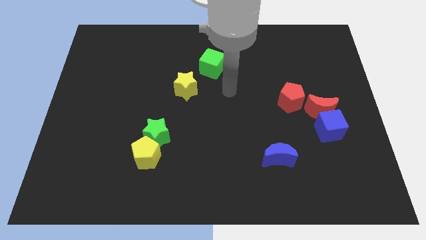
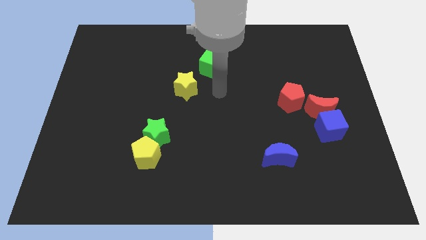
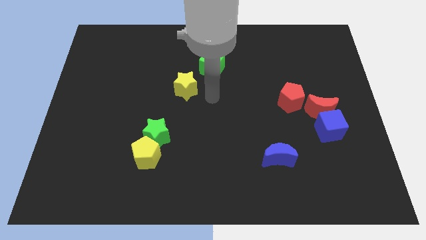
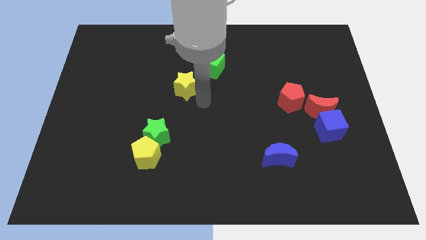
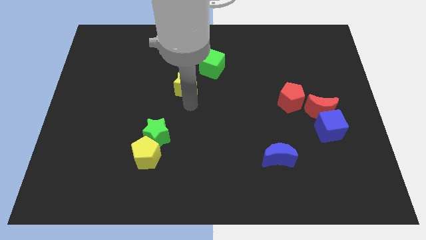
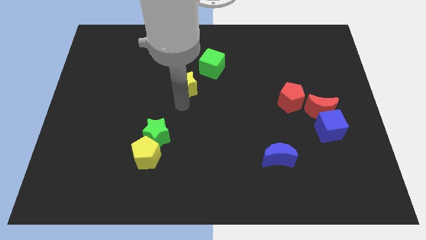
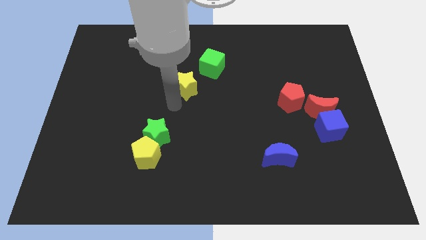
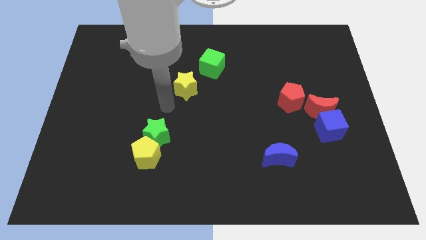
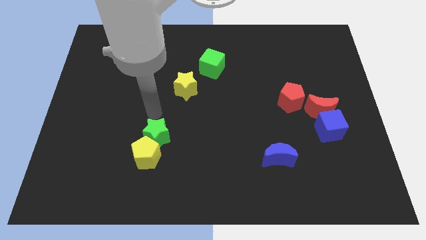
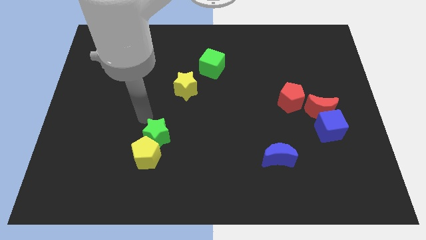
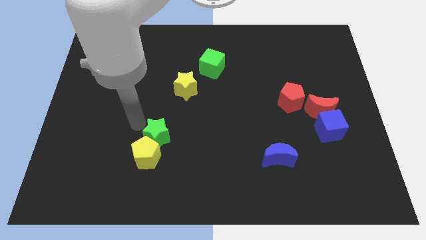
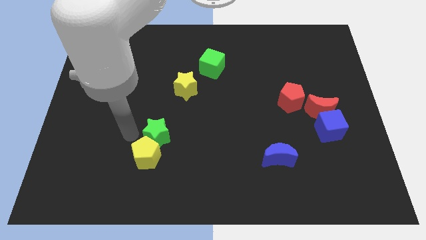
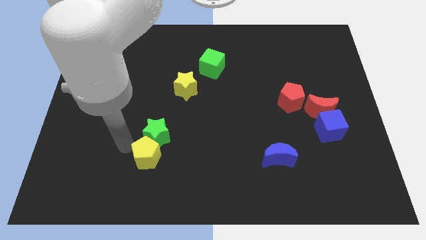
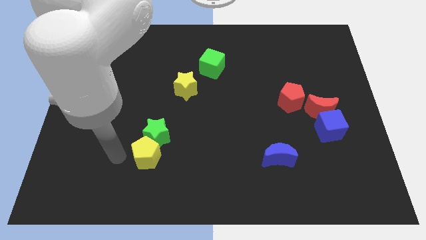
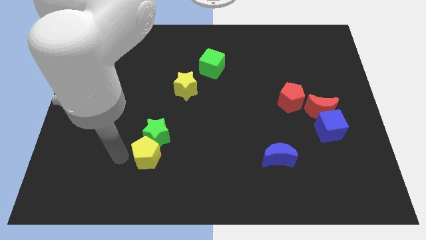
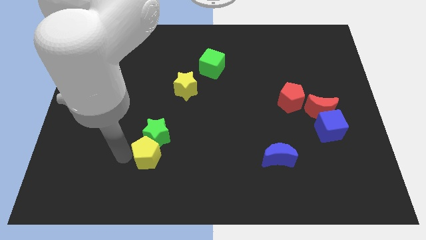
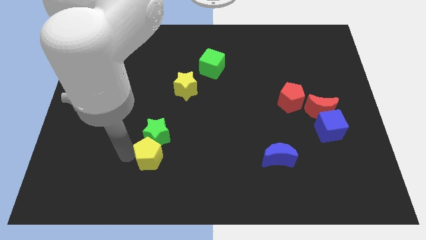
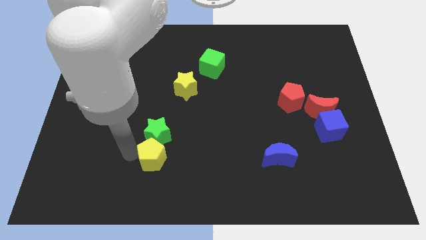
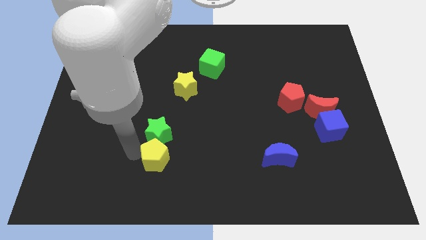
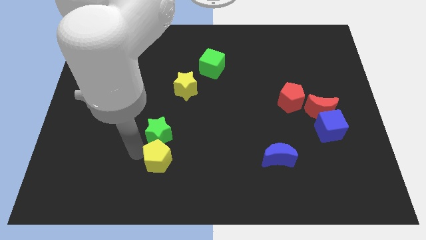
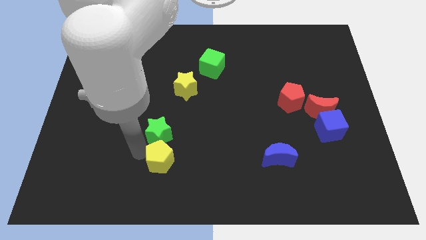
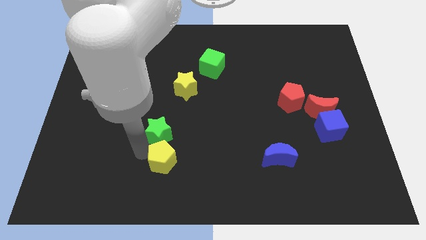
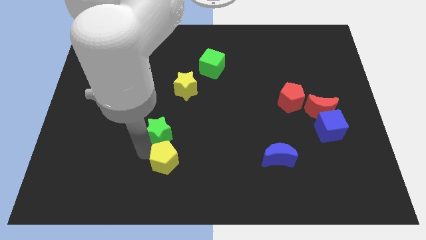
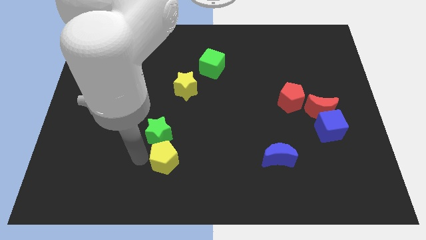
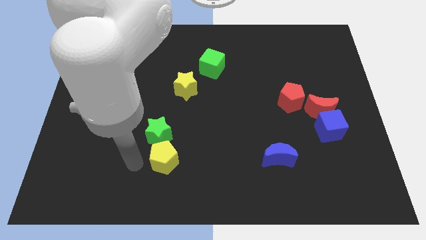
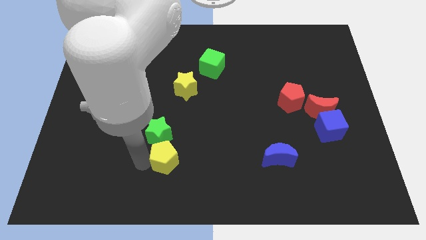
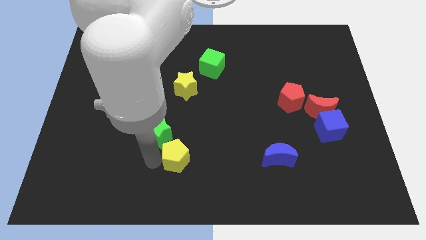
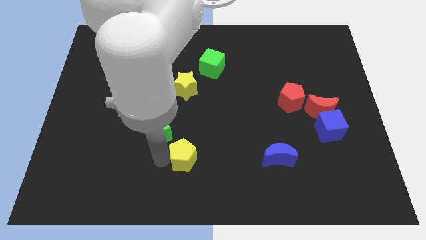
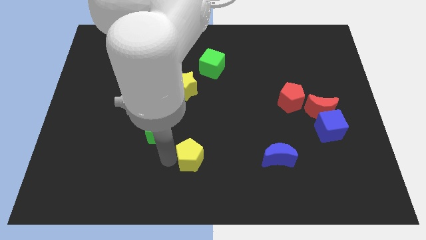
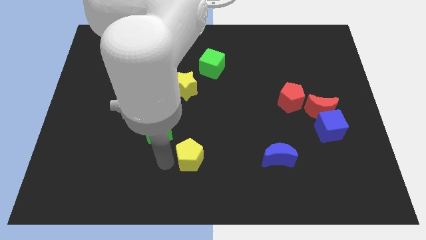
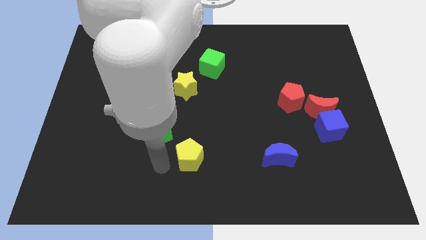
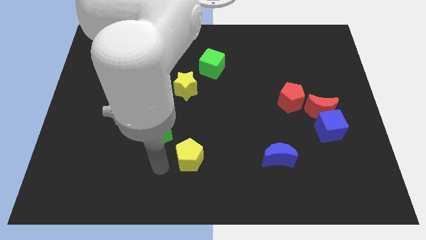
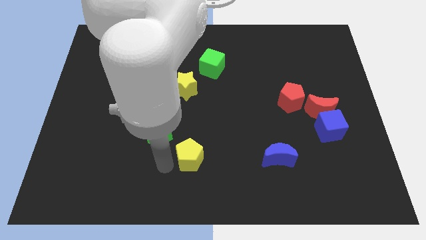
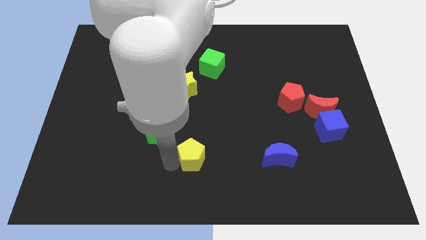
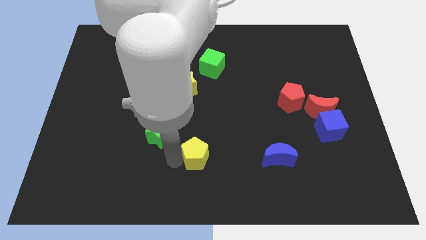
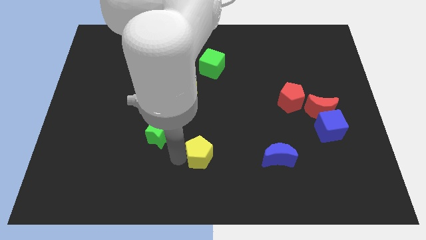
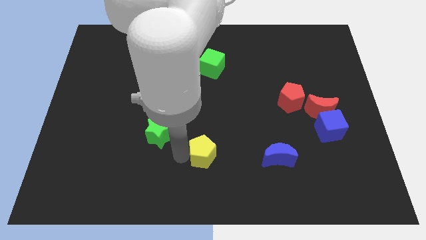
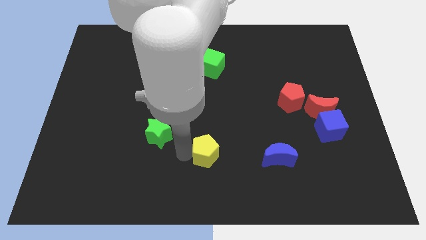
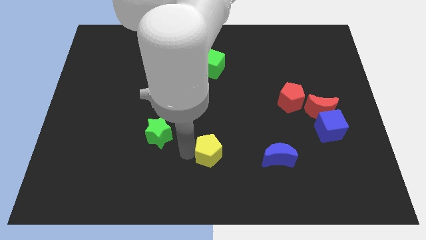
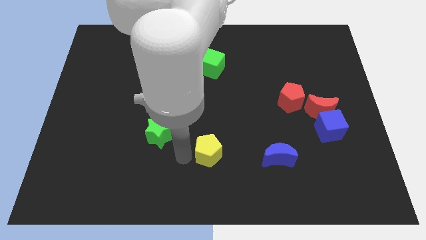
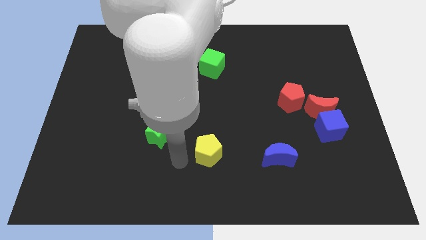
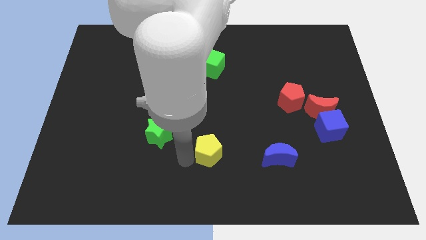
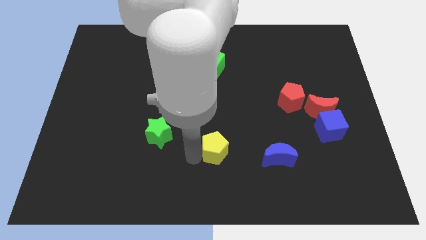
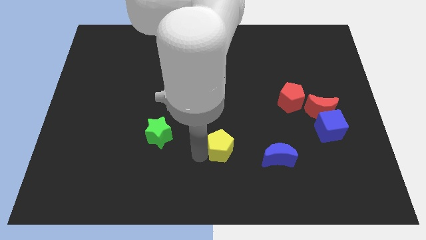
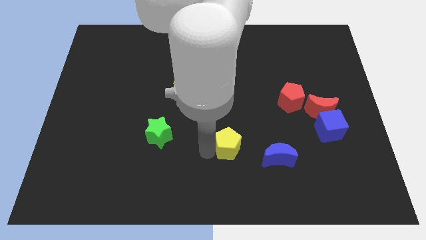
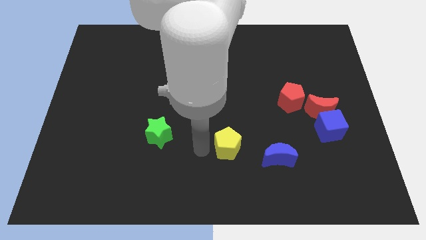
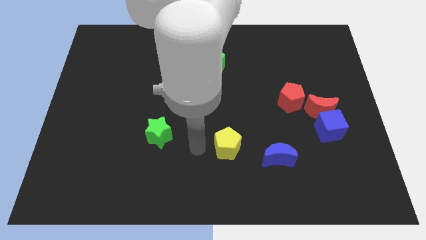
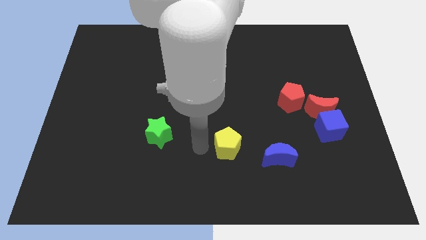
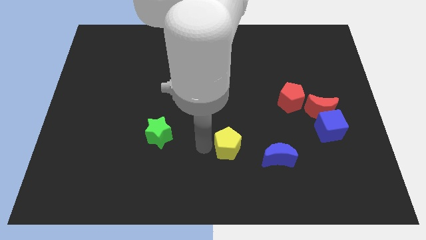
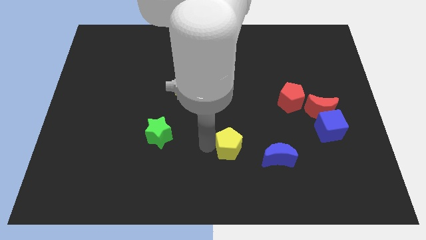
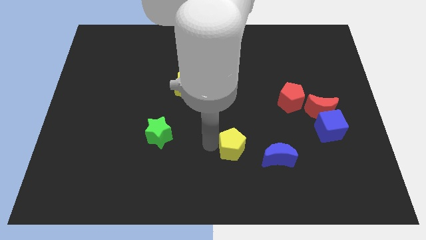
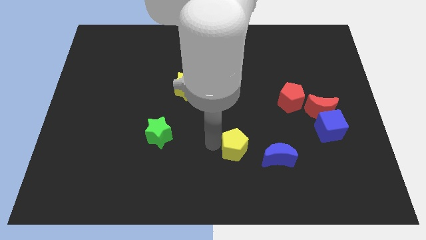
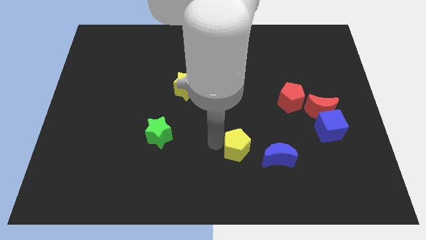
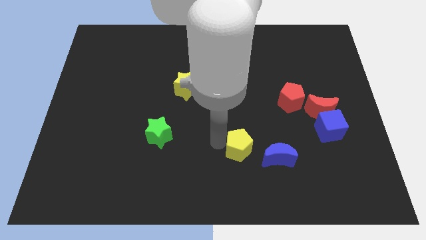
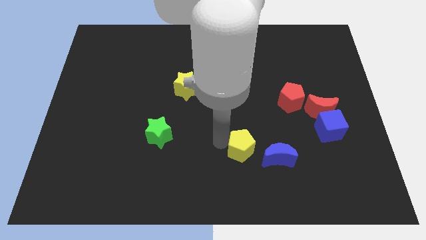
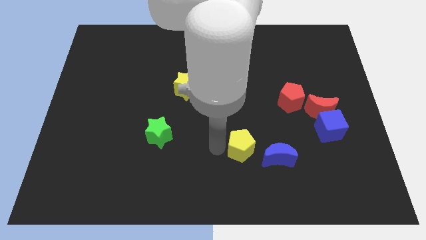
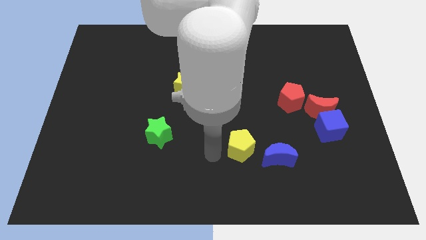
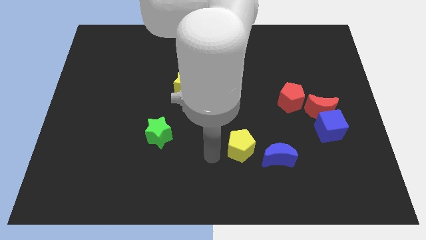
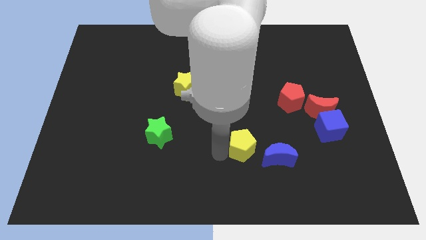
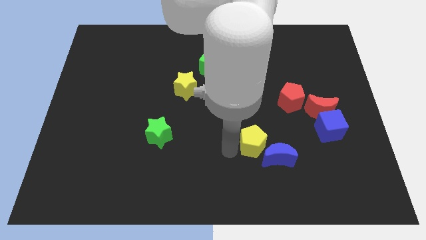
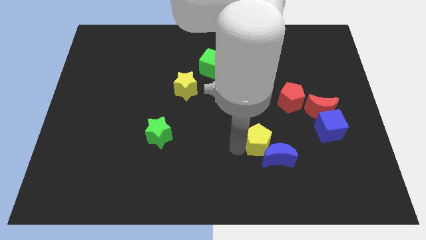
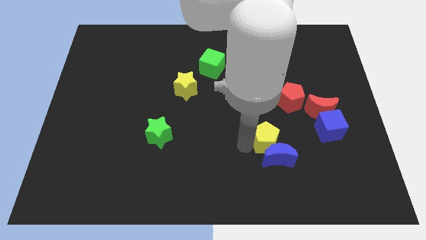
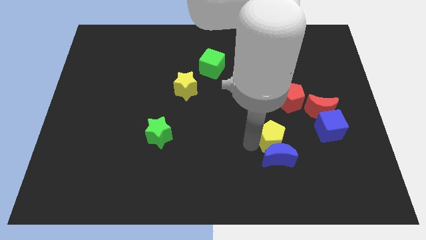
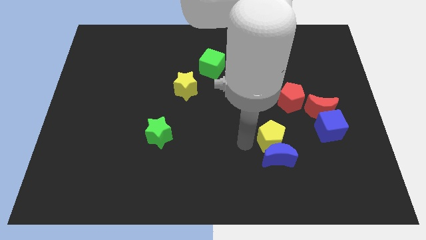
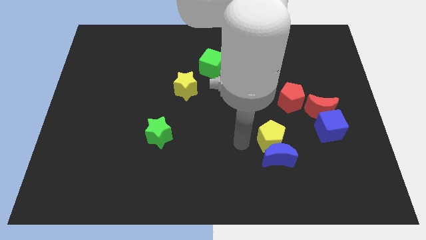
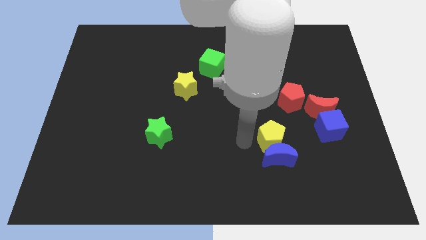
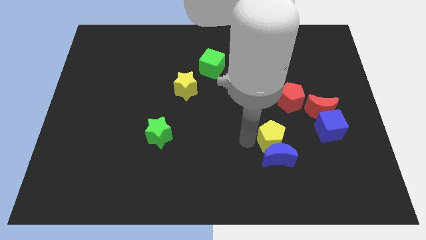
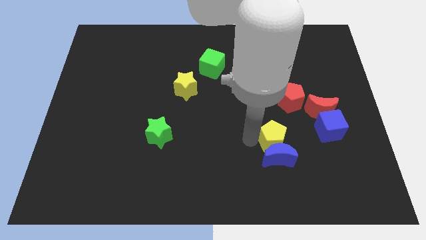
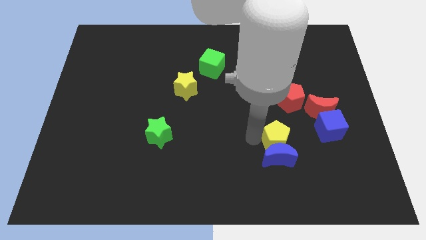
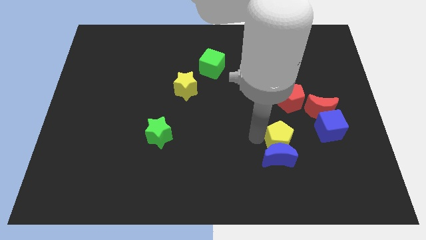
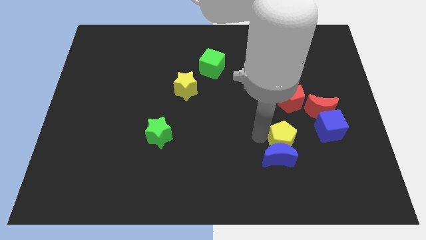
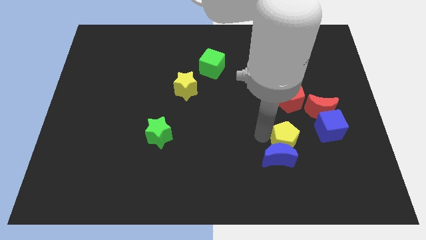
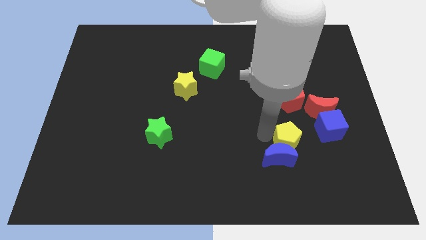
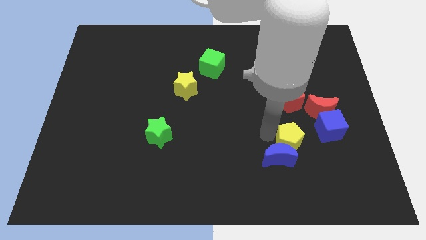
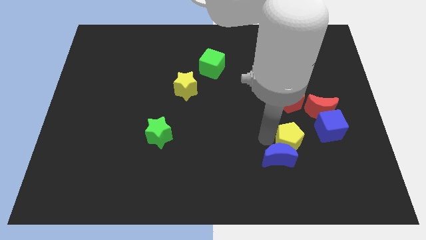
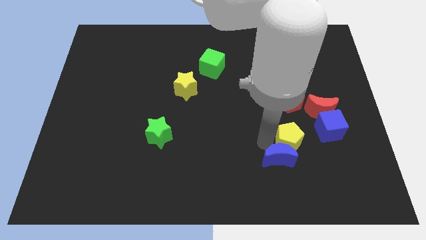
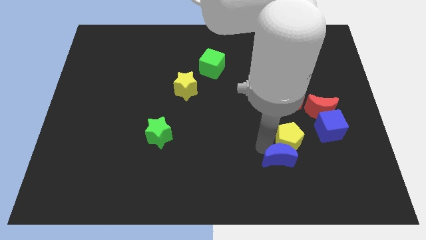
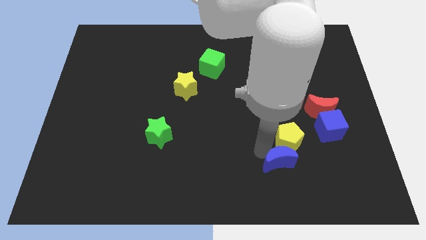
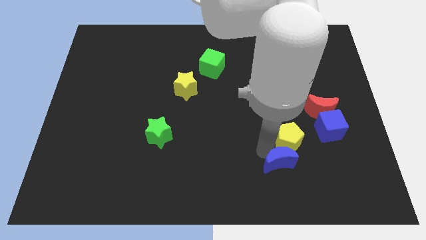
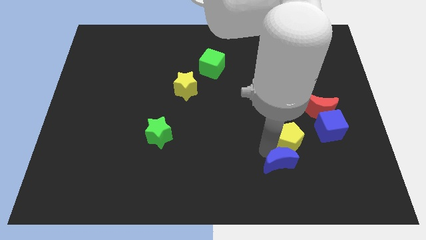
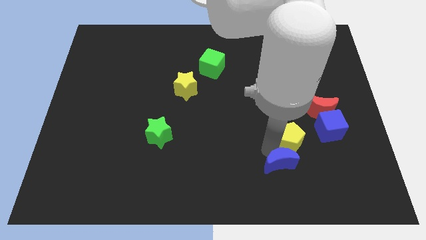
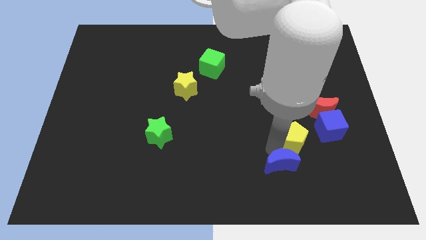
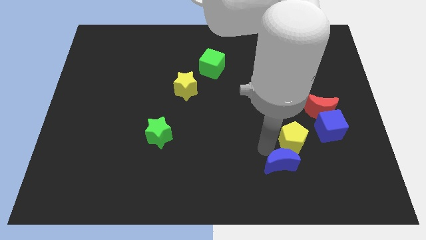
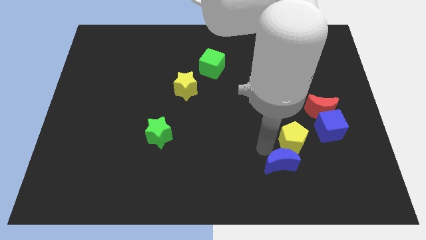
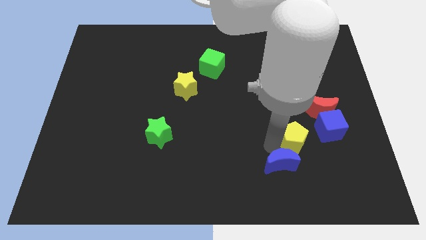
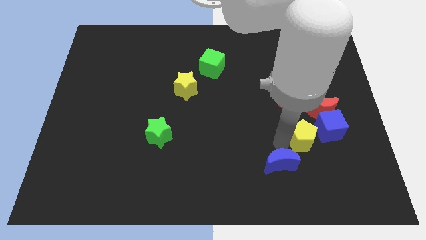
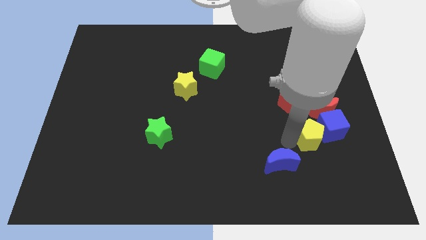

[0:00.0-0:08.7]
slide the yellow pentagon to the blue cube
